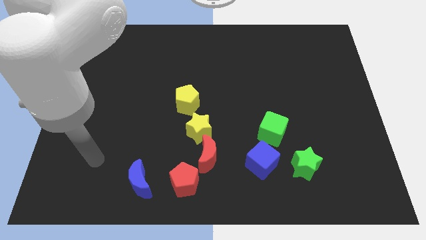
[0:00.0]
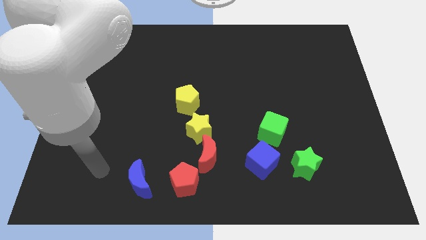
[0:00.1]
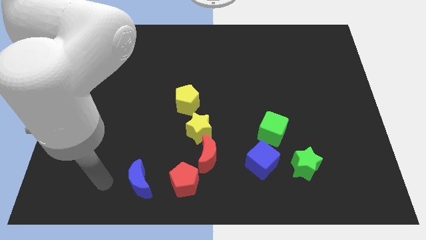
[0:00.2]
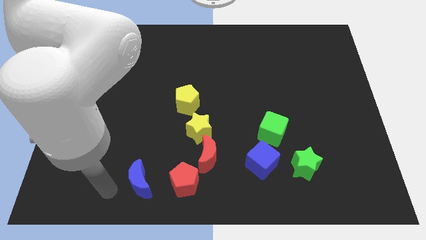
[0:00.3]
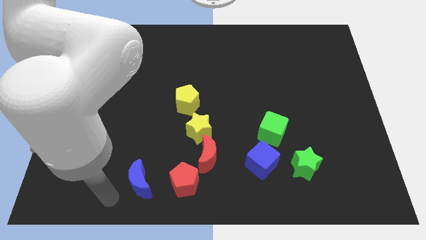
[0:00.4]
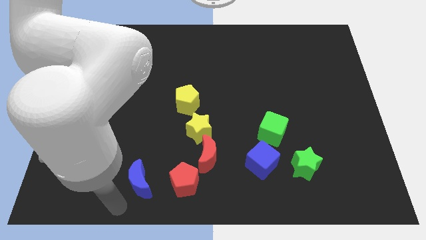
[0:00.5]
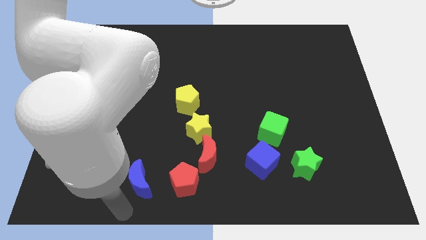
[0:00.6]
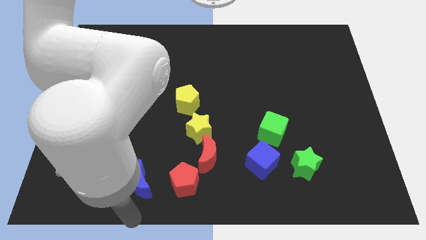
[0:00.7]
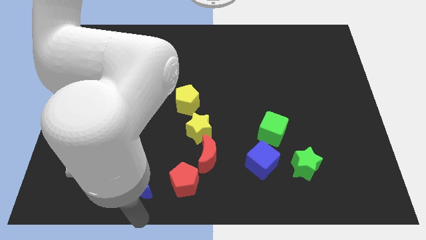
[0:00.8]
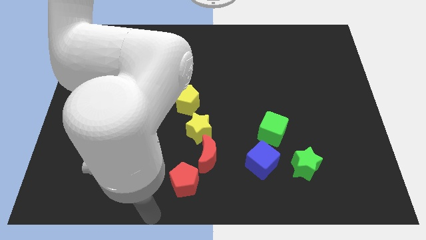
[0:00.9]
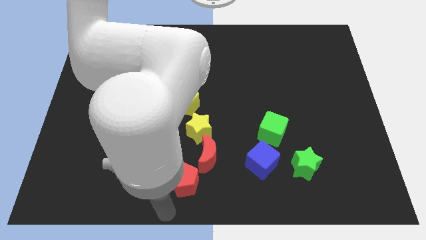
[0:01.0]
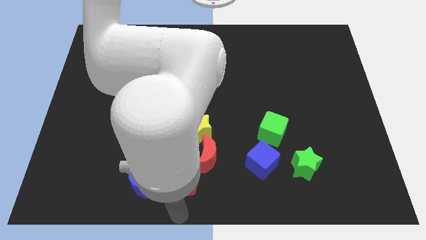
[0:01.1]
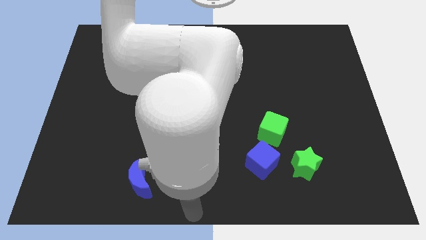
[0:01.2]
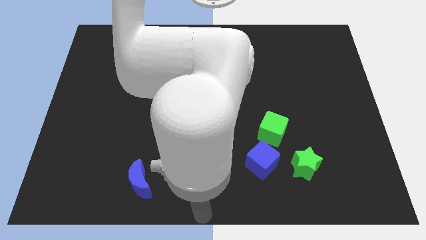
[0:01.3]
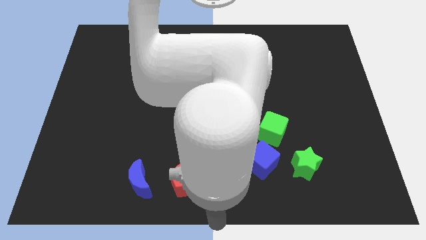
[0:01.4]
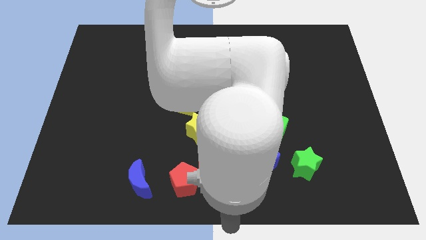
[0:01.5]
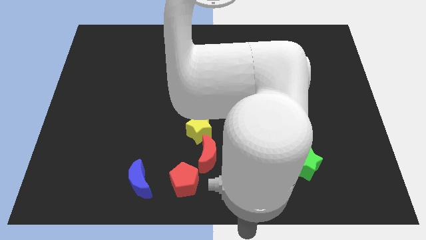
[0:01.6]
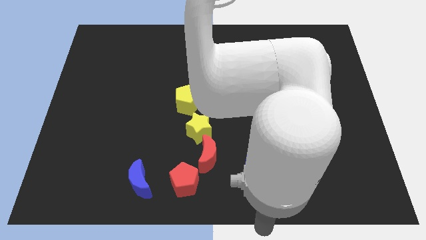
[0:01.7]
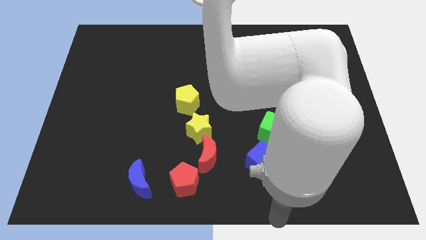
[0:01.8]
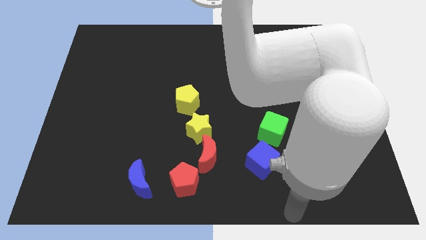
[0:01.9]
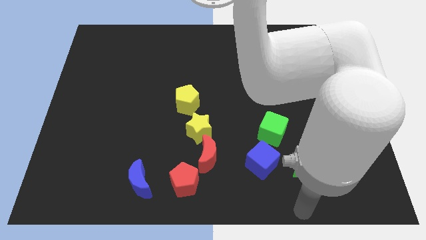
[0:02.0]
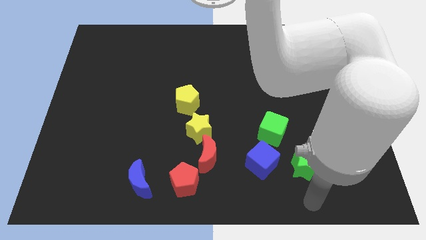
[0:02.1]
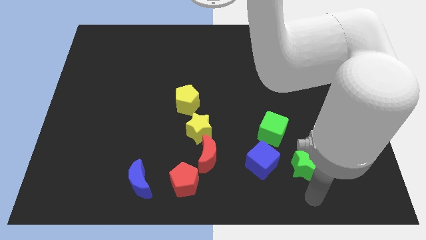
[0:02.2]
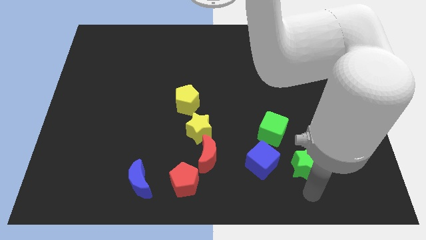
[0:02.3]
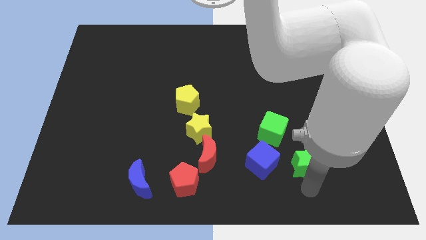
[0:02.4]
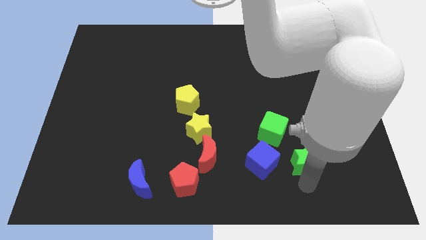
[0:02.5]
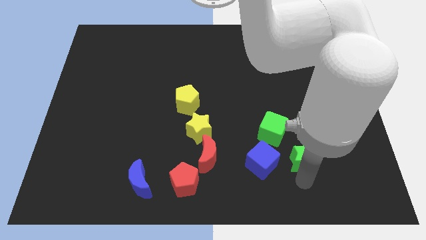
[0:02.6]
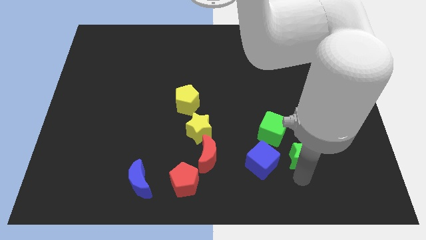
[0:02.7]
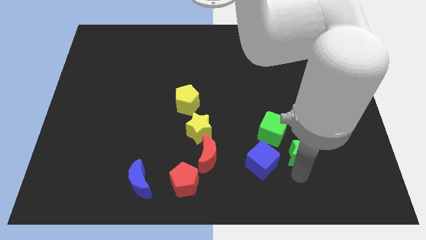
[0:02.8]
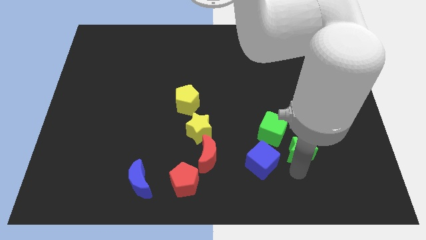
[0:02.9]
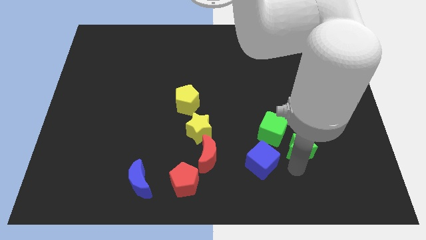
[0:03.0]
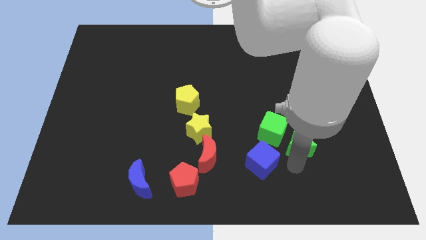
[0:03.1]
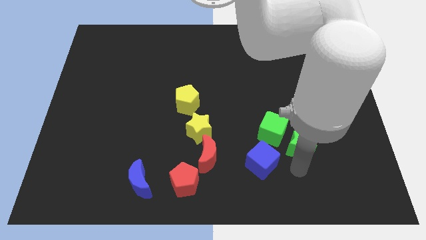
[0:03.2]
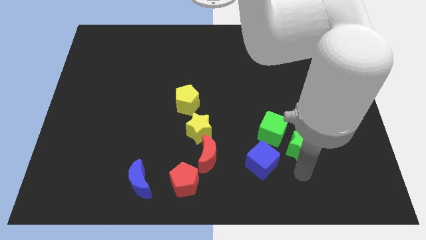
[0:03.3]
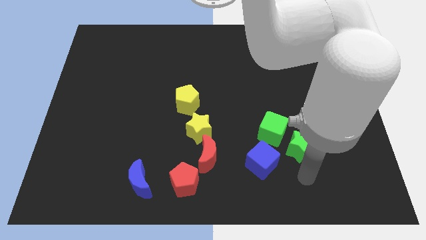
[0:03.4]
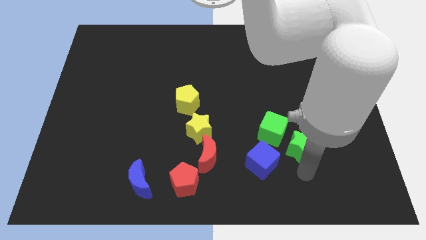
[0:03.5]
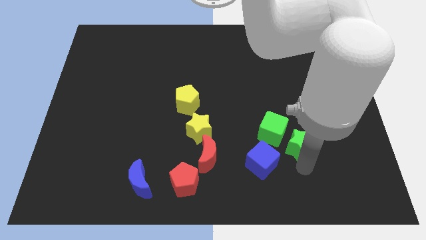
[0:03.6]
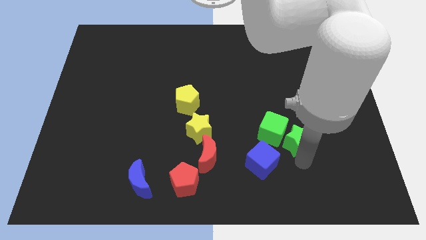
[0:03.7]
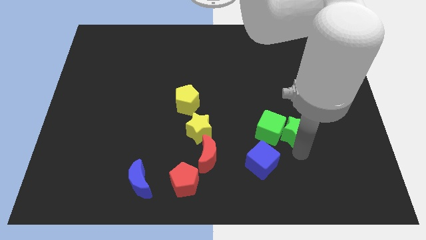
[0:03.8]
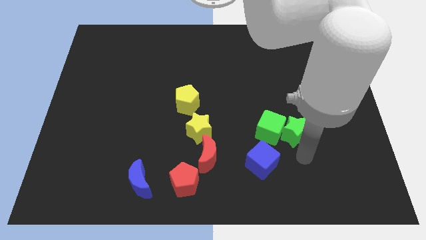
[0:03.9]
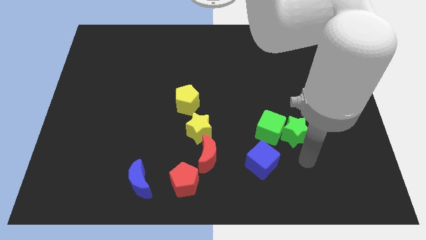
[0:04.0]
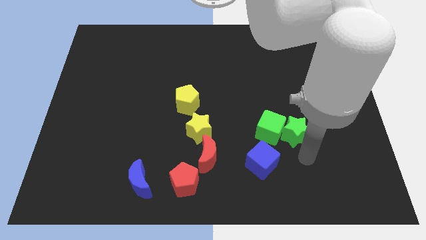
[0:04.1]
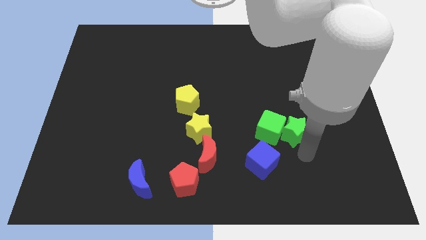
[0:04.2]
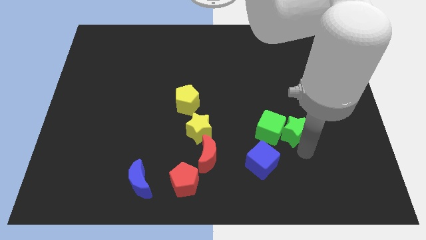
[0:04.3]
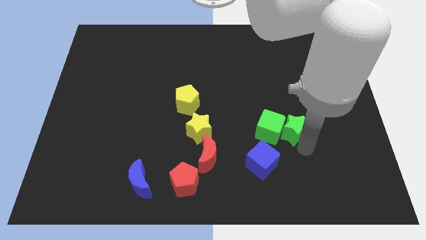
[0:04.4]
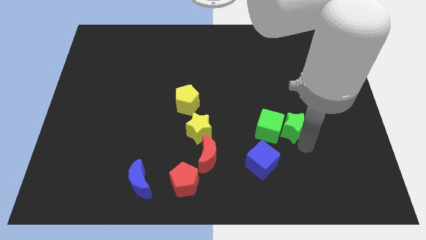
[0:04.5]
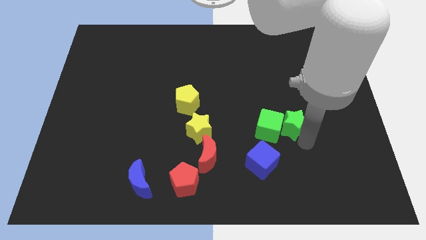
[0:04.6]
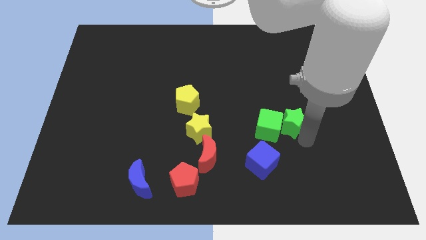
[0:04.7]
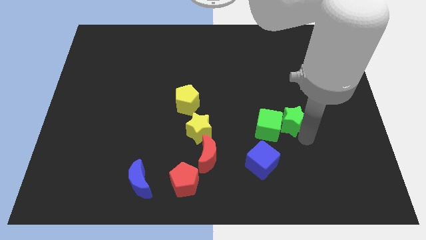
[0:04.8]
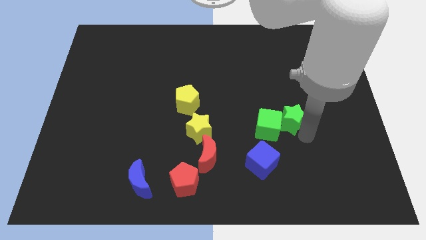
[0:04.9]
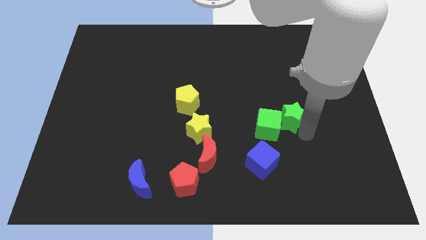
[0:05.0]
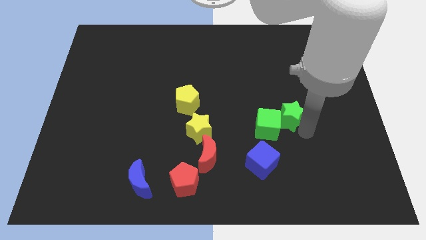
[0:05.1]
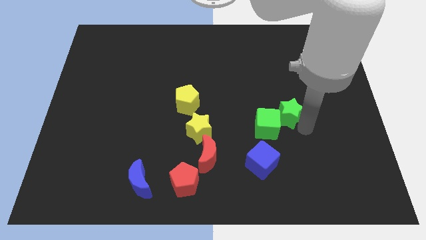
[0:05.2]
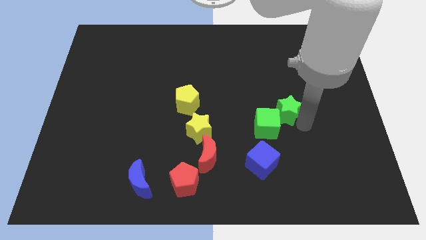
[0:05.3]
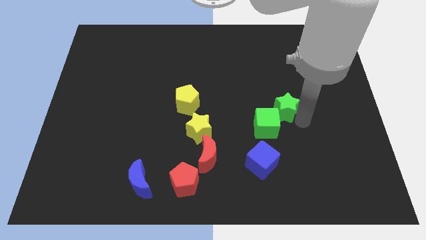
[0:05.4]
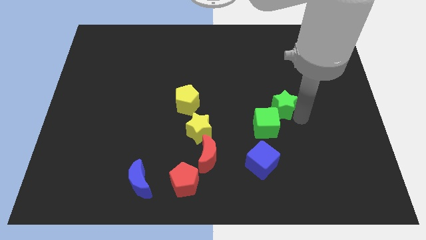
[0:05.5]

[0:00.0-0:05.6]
put the green star to the top side of the green cube

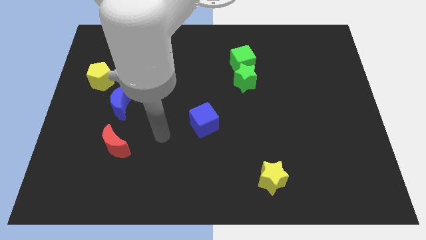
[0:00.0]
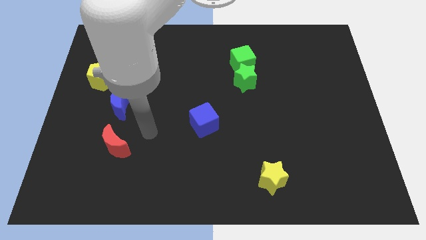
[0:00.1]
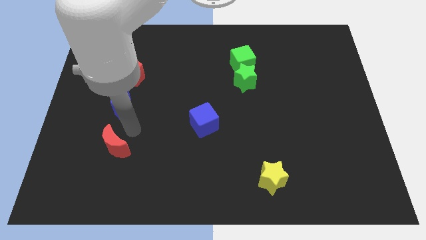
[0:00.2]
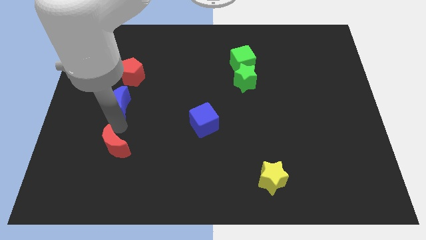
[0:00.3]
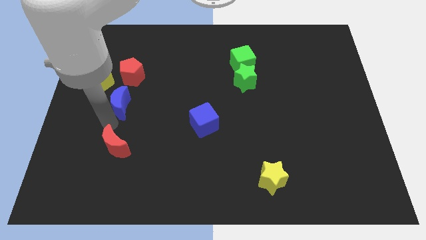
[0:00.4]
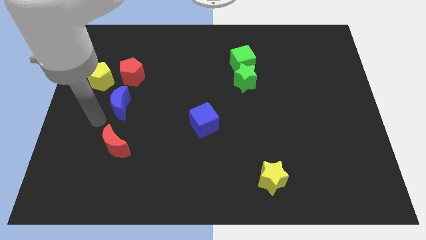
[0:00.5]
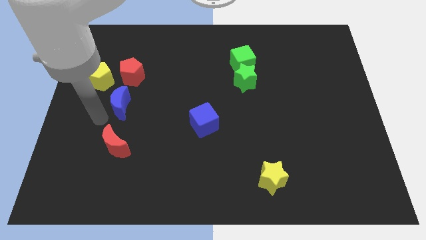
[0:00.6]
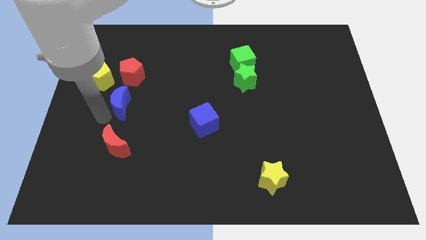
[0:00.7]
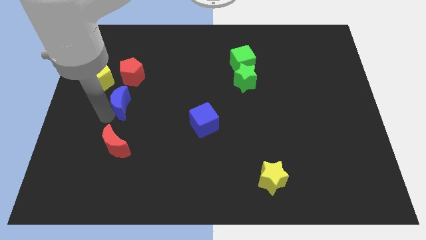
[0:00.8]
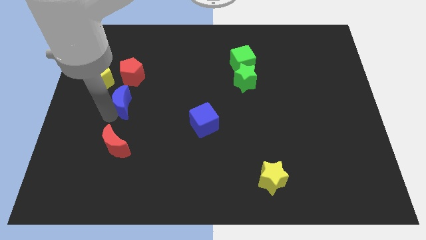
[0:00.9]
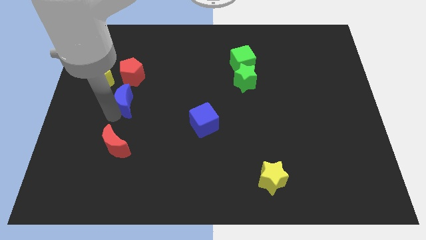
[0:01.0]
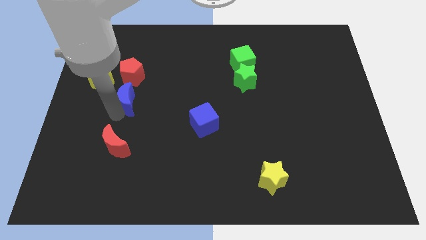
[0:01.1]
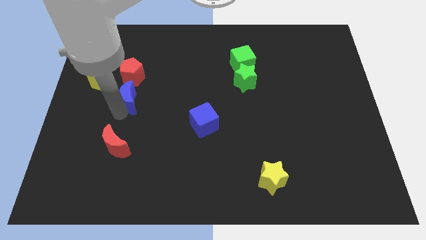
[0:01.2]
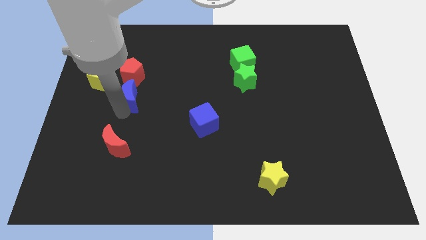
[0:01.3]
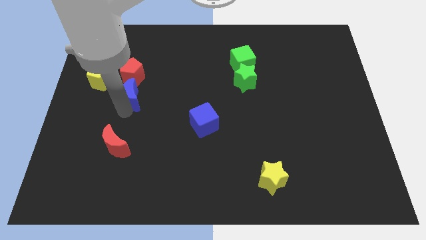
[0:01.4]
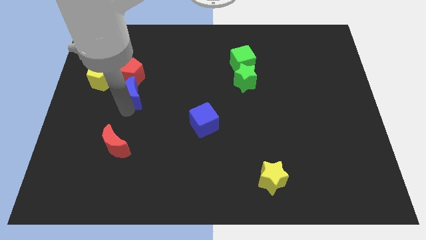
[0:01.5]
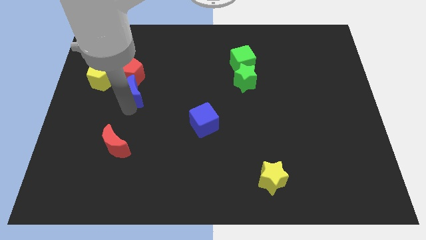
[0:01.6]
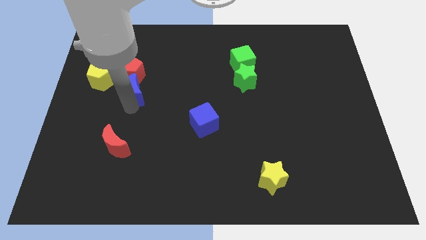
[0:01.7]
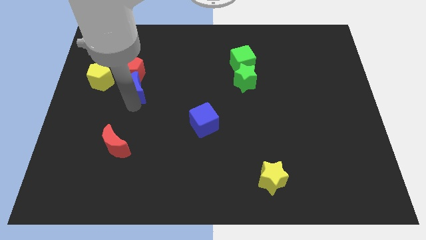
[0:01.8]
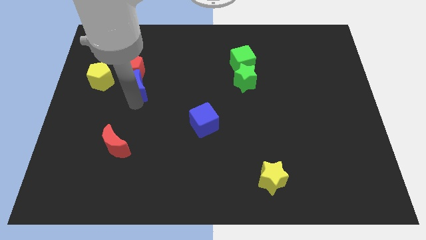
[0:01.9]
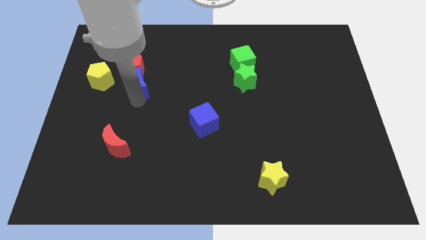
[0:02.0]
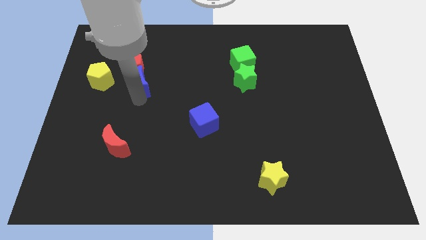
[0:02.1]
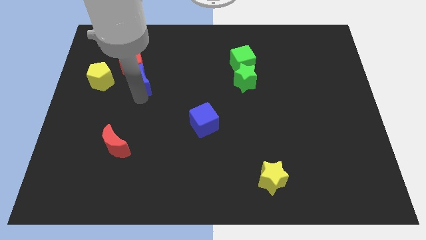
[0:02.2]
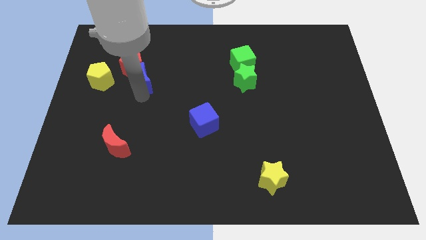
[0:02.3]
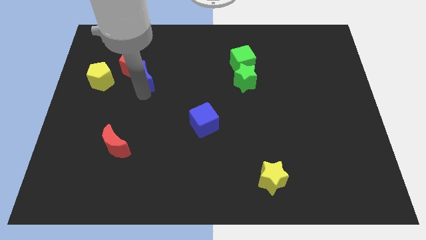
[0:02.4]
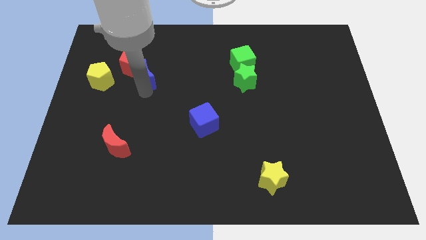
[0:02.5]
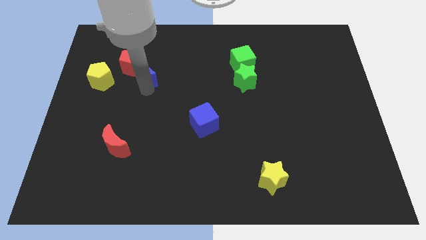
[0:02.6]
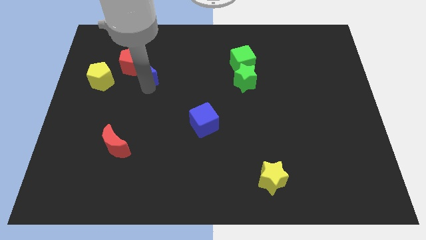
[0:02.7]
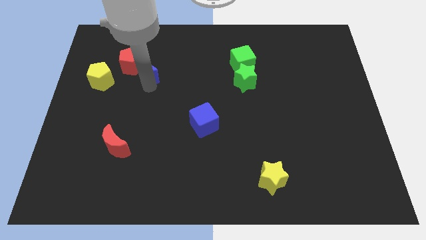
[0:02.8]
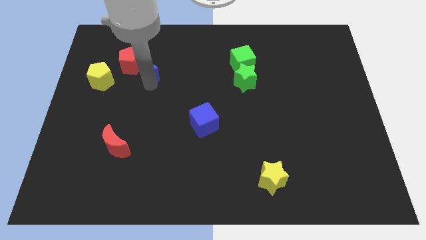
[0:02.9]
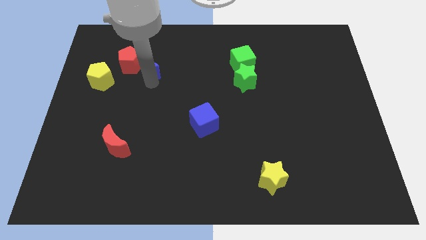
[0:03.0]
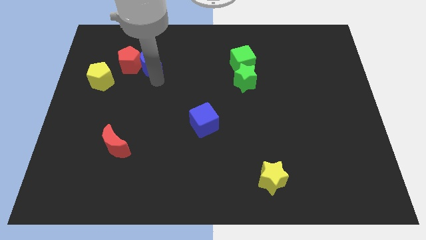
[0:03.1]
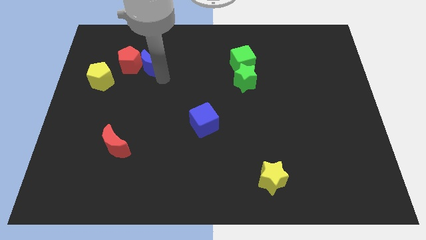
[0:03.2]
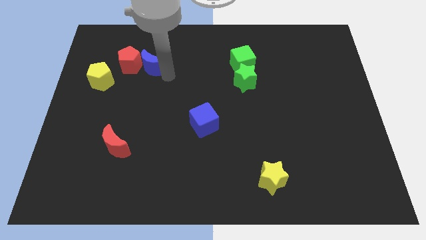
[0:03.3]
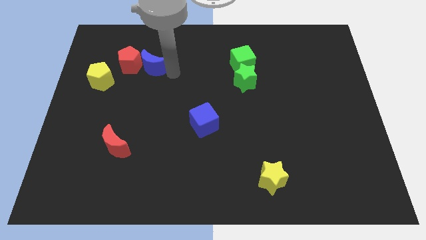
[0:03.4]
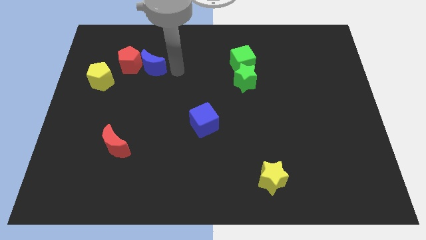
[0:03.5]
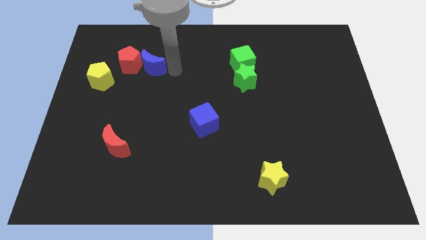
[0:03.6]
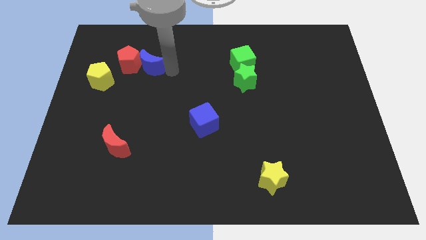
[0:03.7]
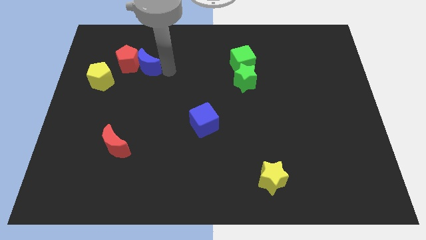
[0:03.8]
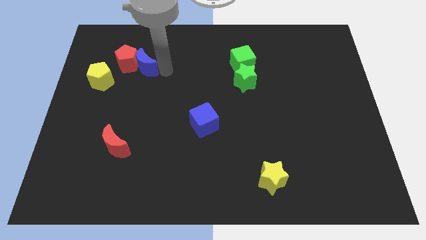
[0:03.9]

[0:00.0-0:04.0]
slide the blue moon diagonally up and to the right of the yellow pentagon
